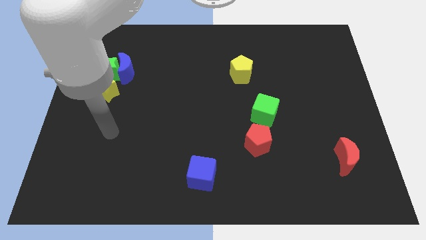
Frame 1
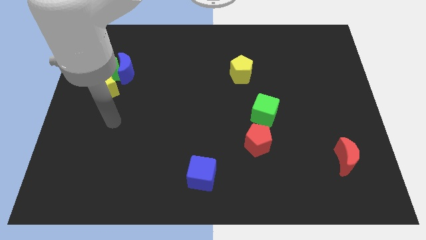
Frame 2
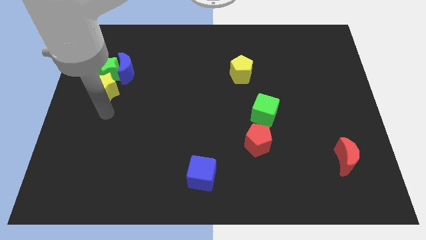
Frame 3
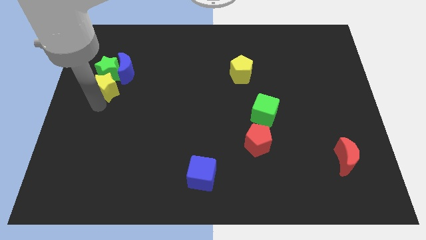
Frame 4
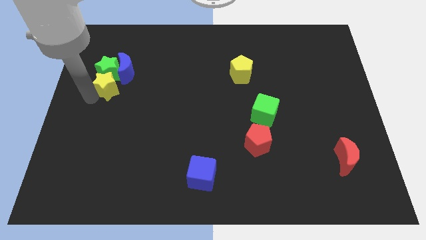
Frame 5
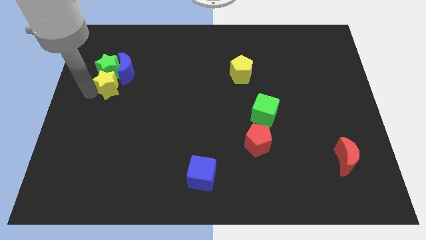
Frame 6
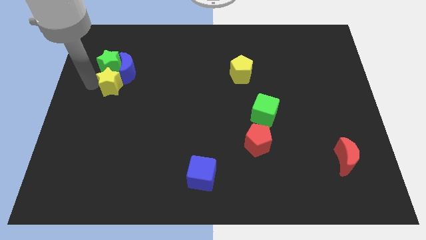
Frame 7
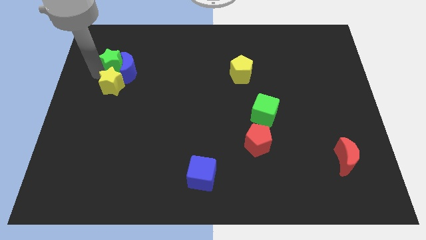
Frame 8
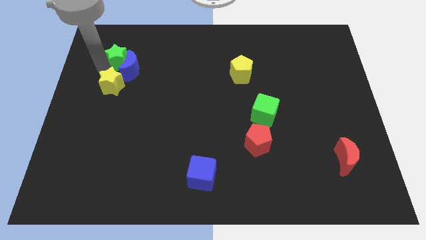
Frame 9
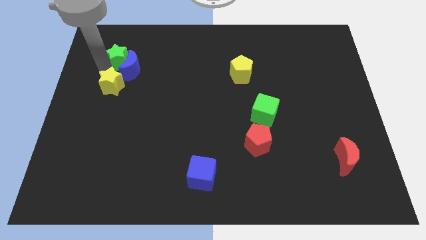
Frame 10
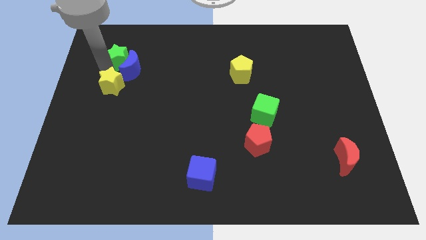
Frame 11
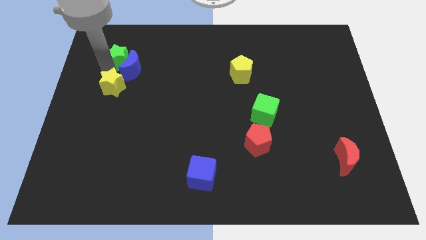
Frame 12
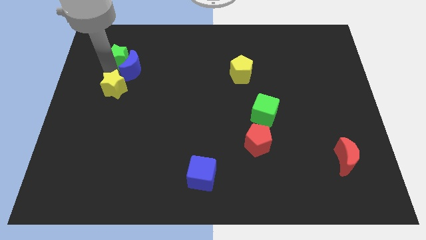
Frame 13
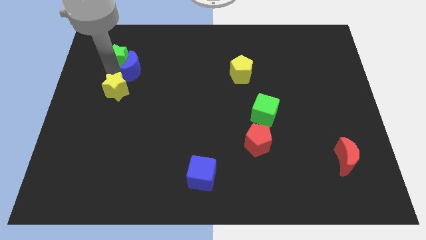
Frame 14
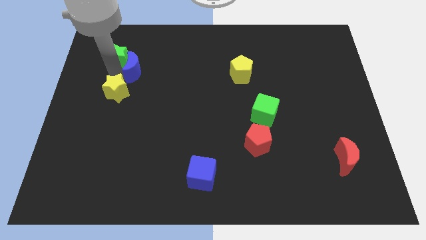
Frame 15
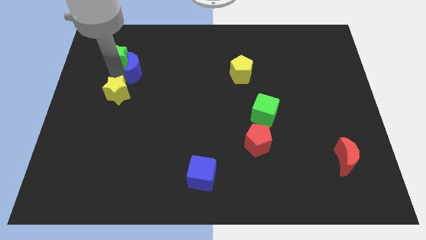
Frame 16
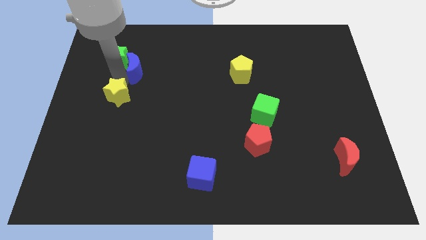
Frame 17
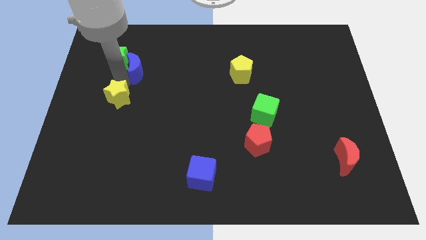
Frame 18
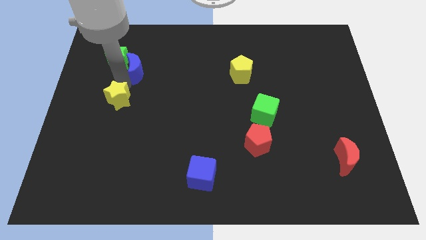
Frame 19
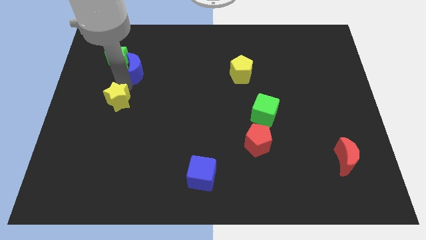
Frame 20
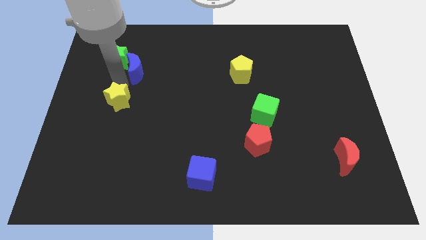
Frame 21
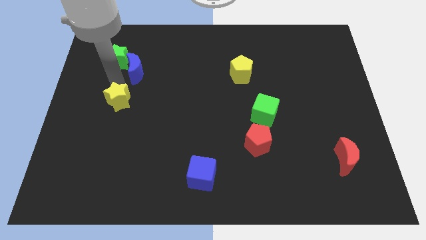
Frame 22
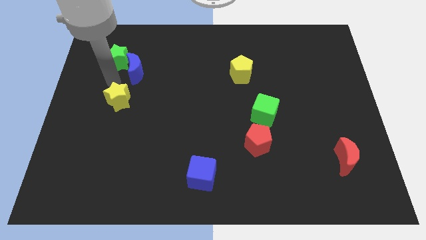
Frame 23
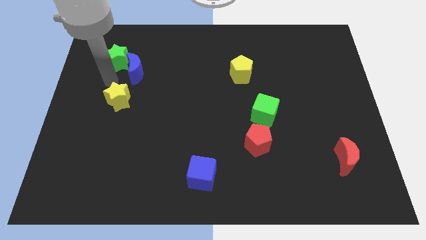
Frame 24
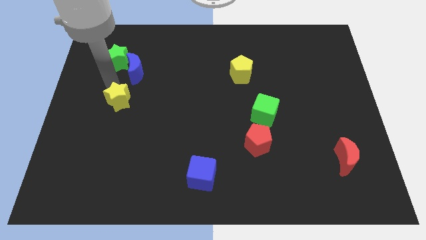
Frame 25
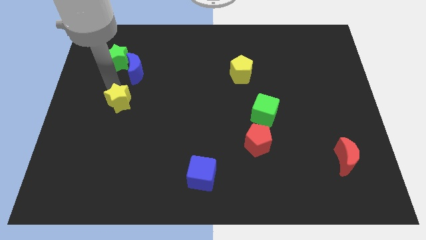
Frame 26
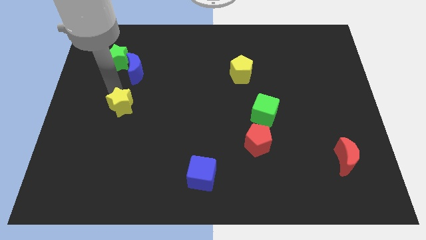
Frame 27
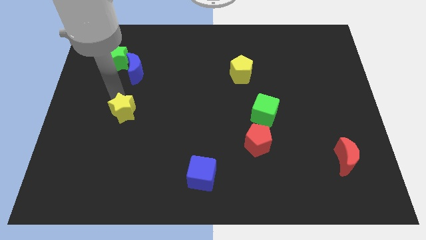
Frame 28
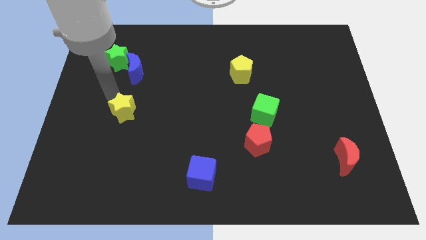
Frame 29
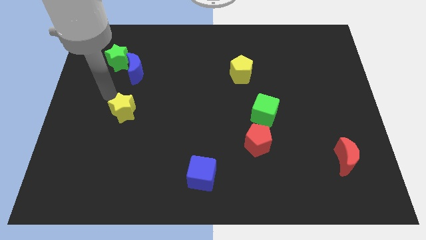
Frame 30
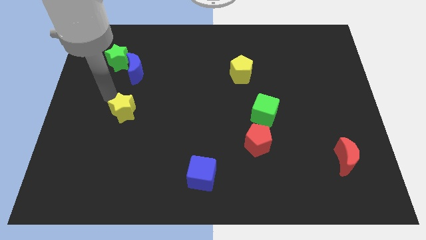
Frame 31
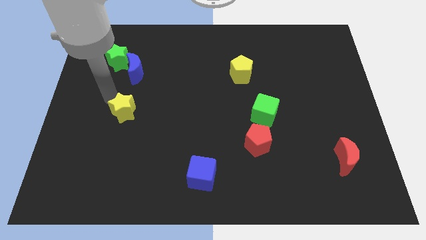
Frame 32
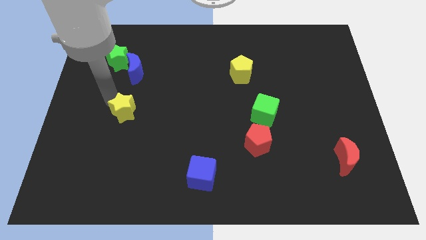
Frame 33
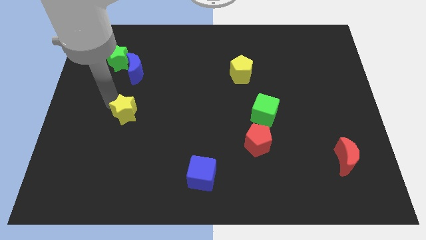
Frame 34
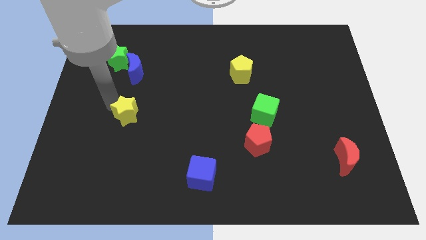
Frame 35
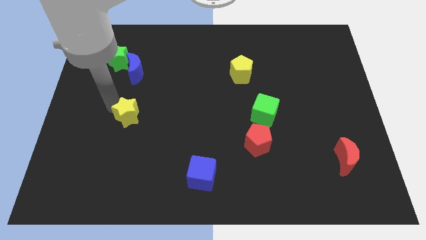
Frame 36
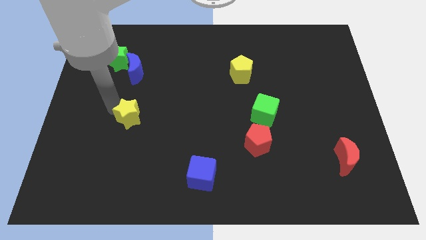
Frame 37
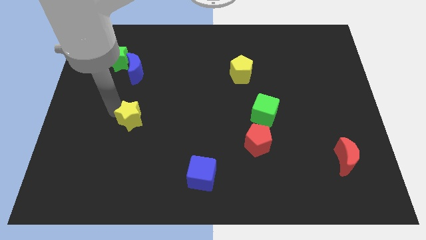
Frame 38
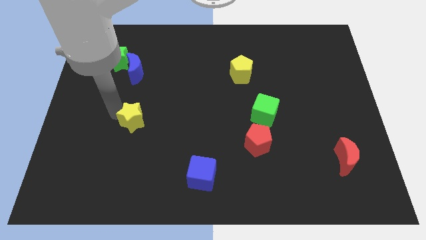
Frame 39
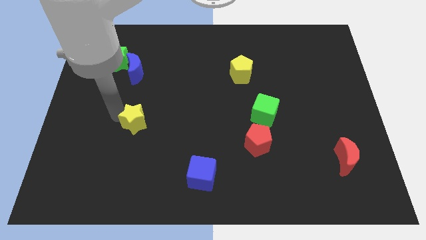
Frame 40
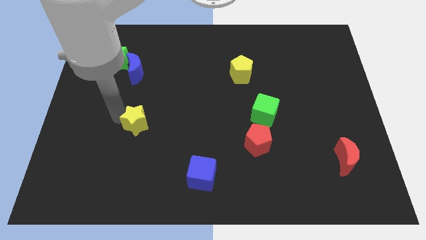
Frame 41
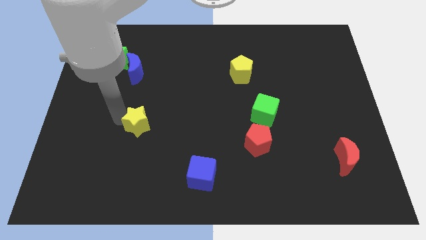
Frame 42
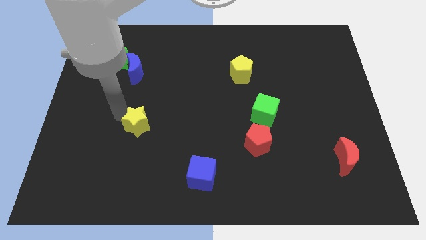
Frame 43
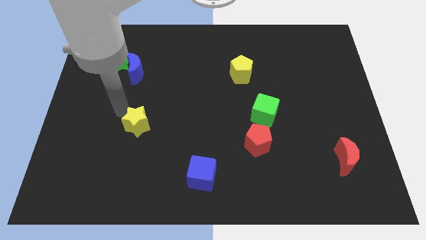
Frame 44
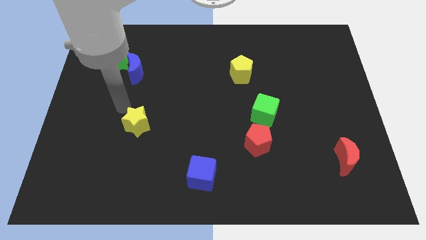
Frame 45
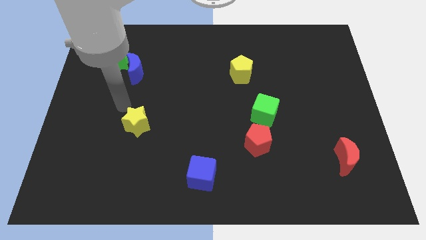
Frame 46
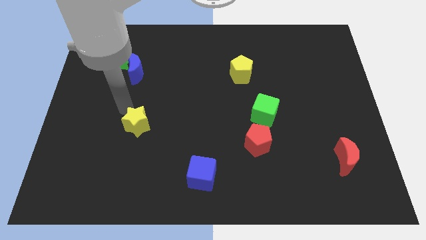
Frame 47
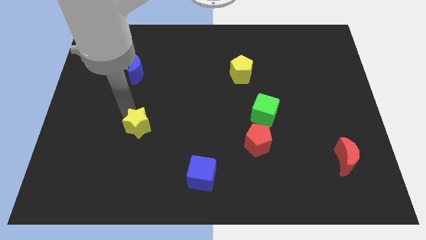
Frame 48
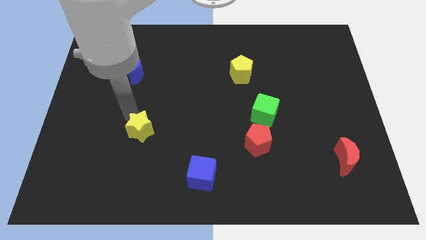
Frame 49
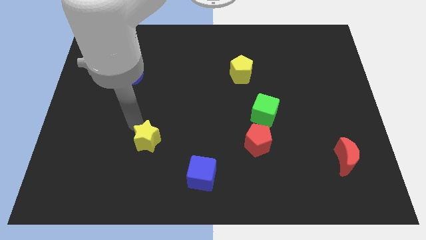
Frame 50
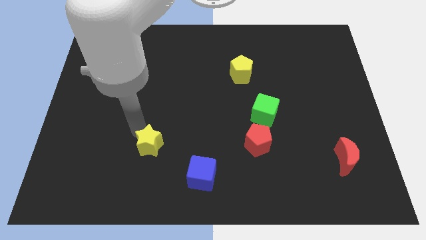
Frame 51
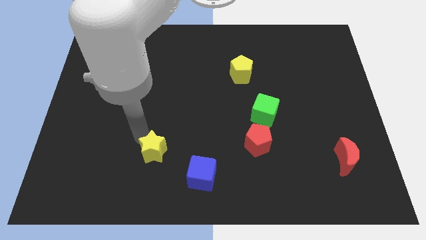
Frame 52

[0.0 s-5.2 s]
slide the yellow star to the top left side of the blue cube

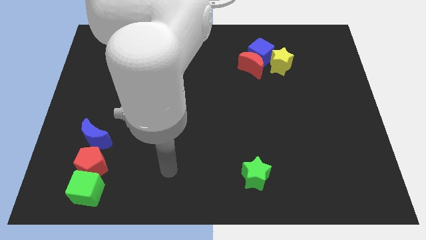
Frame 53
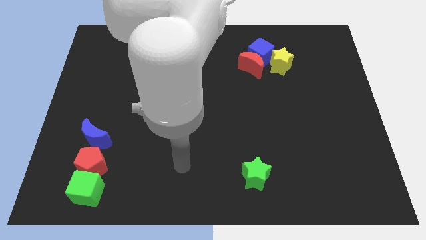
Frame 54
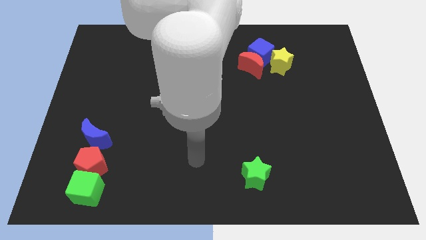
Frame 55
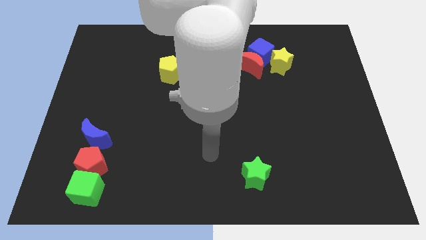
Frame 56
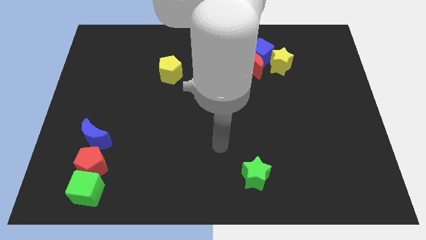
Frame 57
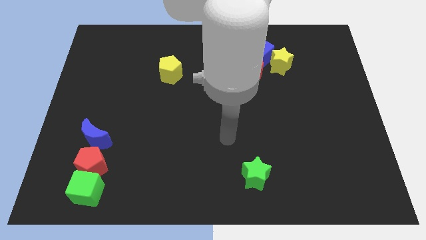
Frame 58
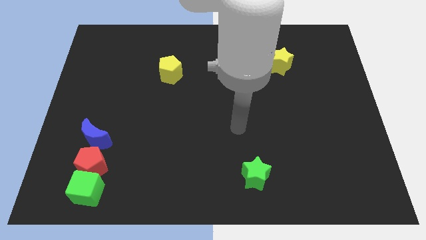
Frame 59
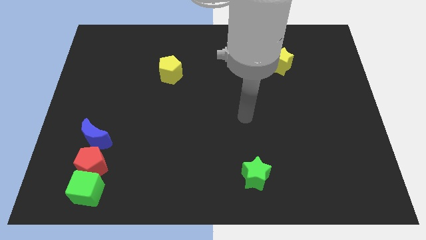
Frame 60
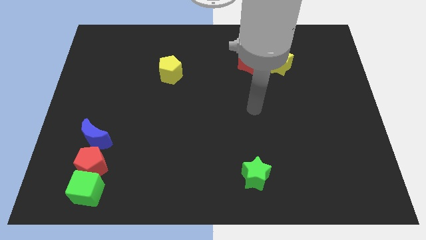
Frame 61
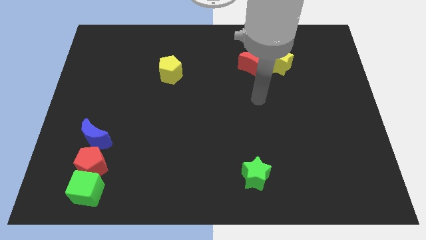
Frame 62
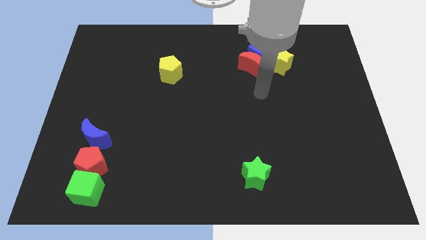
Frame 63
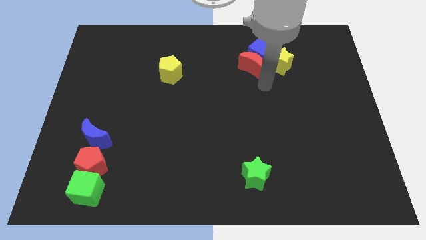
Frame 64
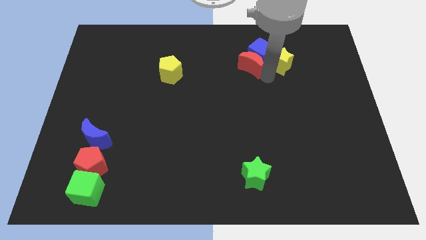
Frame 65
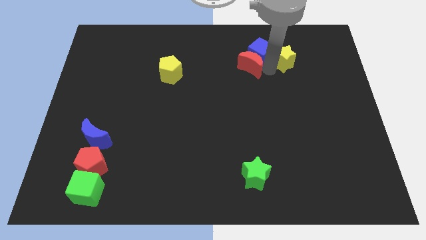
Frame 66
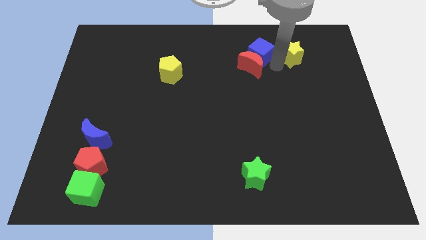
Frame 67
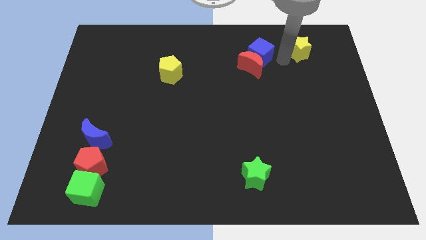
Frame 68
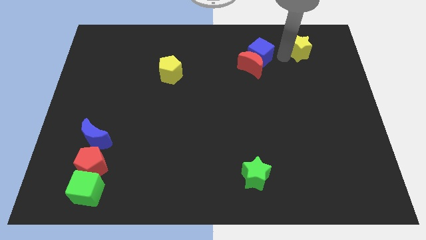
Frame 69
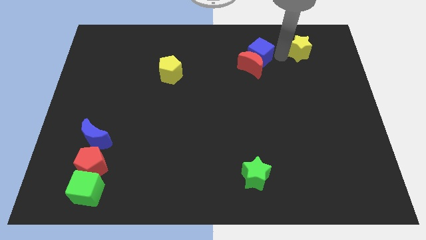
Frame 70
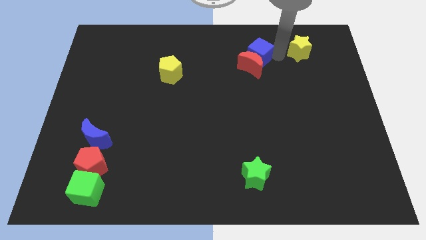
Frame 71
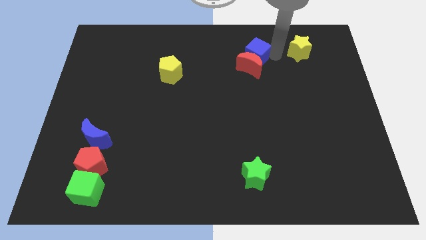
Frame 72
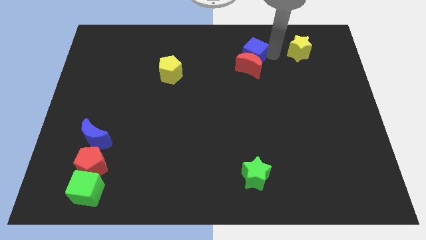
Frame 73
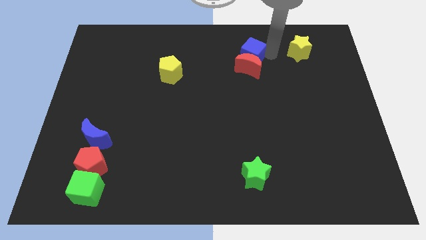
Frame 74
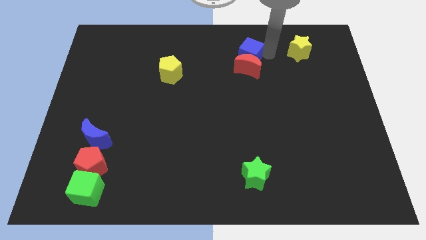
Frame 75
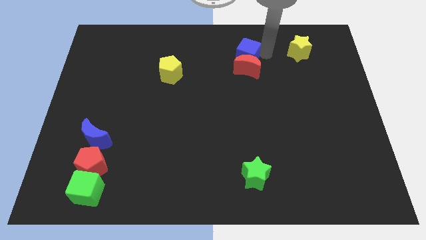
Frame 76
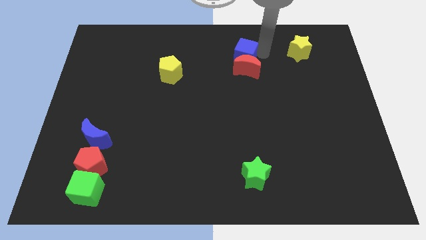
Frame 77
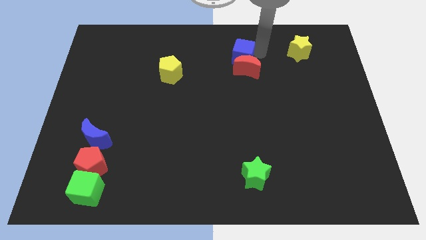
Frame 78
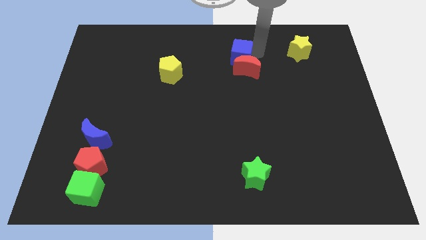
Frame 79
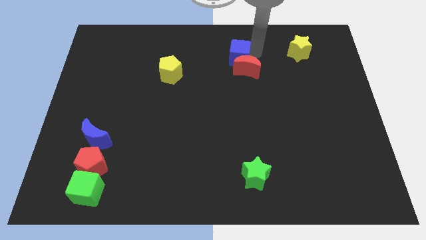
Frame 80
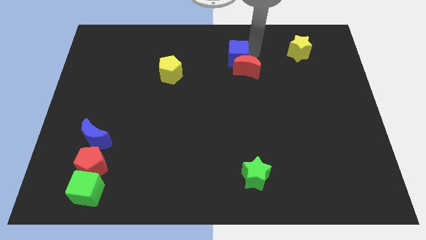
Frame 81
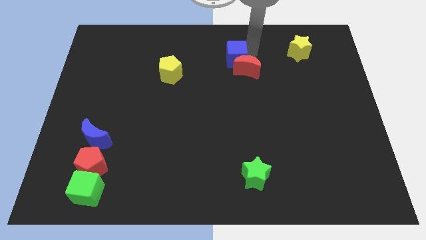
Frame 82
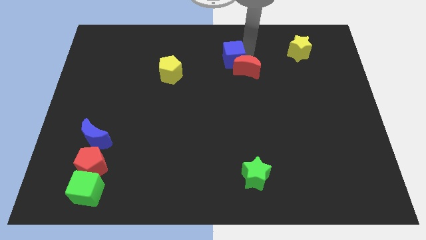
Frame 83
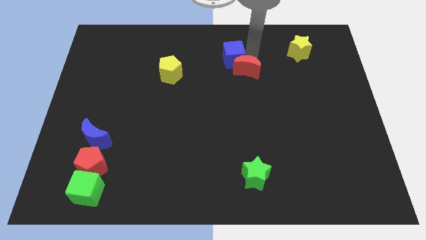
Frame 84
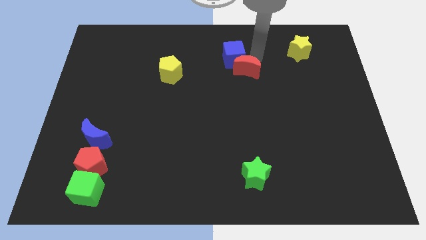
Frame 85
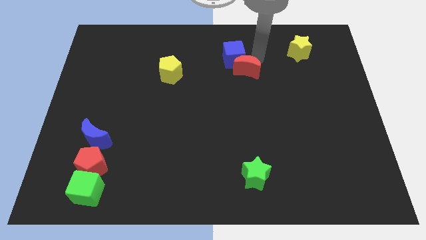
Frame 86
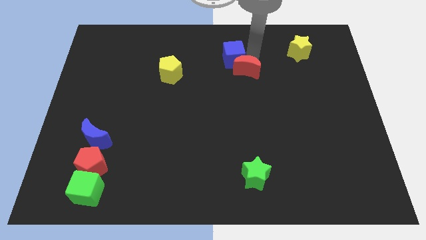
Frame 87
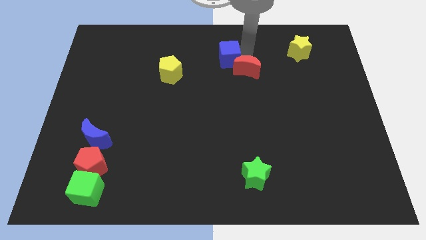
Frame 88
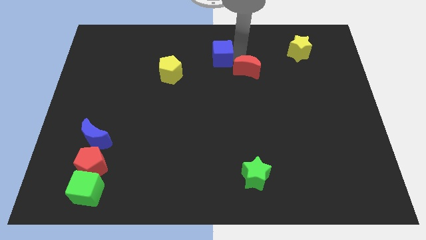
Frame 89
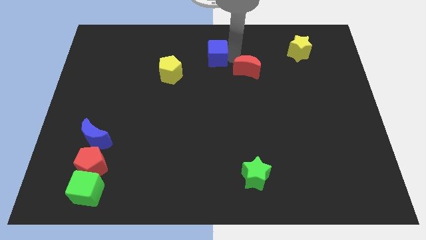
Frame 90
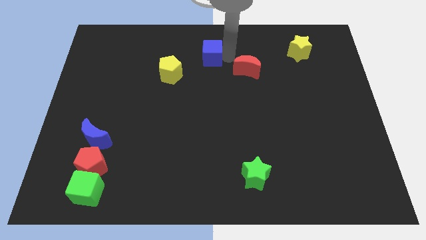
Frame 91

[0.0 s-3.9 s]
move the blue cube to the top right of the yellow pentagon
